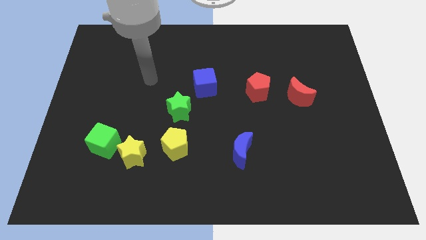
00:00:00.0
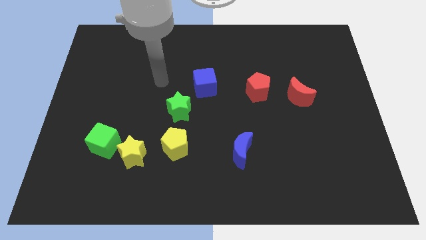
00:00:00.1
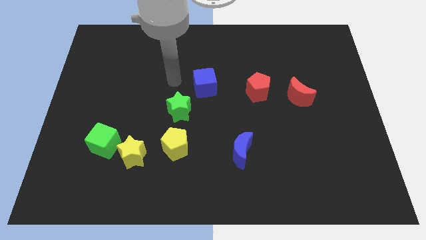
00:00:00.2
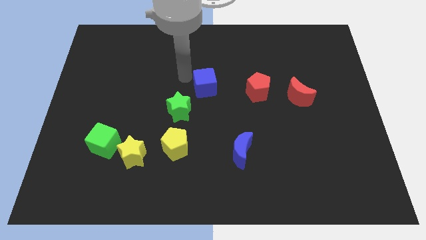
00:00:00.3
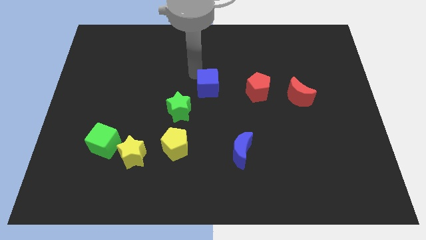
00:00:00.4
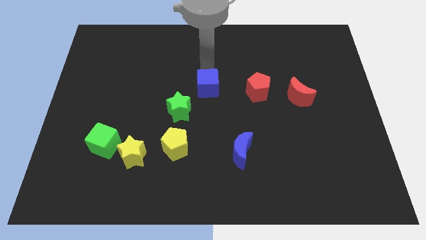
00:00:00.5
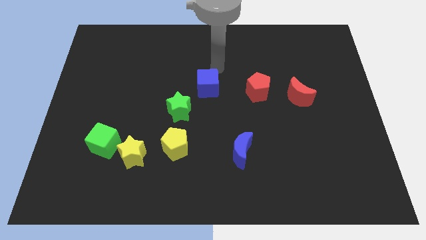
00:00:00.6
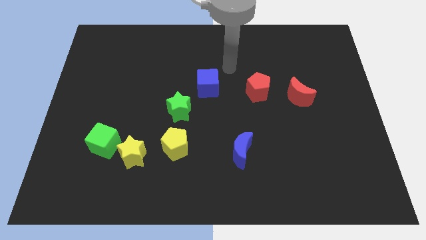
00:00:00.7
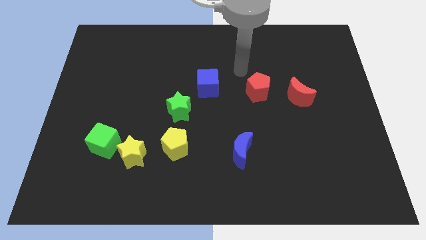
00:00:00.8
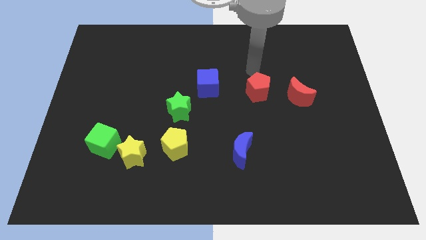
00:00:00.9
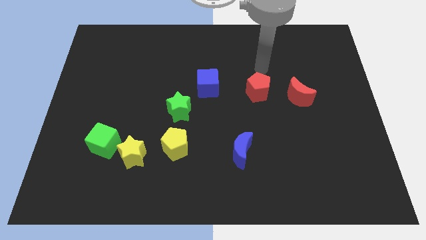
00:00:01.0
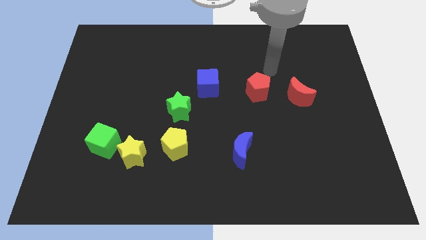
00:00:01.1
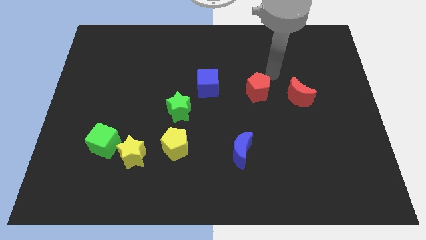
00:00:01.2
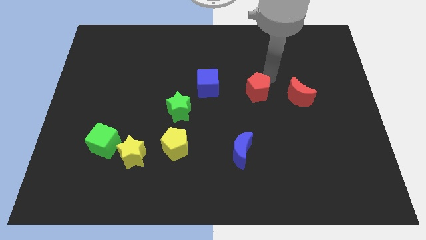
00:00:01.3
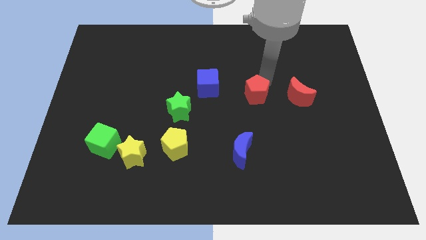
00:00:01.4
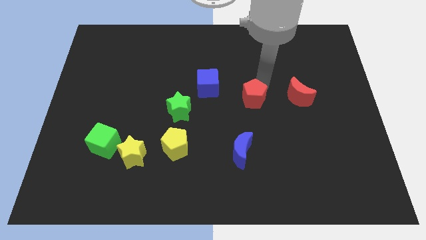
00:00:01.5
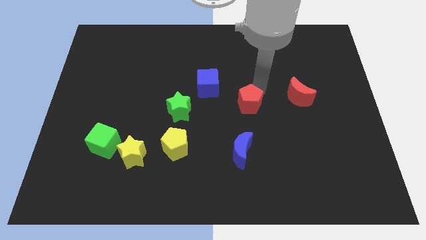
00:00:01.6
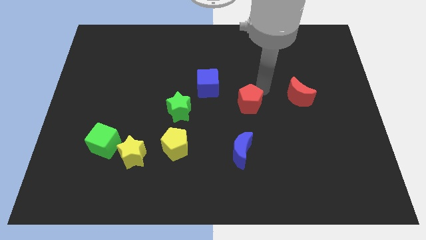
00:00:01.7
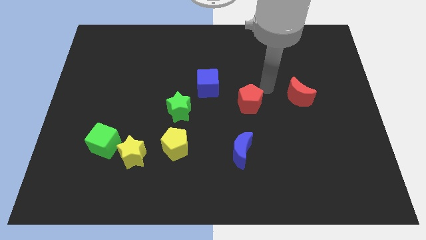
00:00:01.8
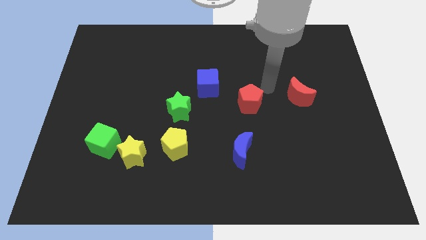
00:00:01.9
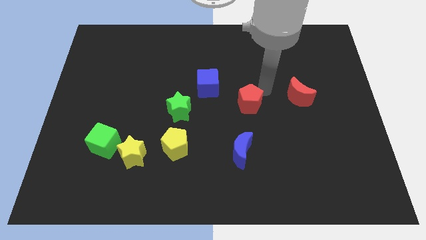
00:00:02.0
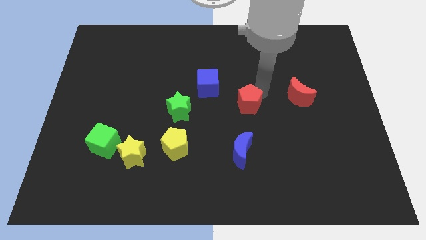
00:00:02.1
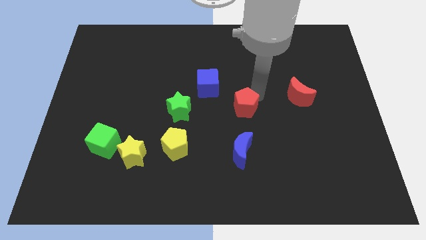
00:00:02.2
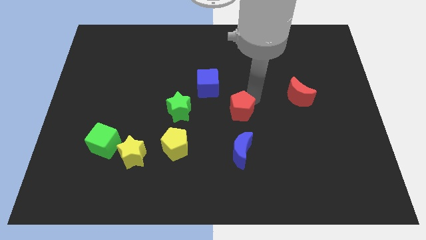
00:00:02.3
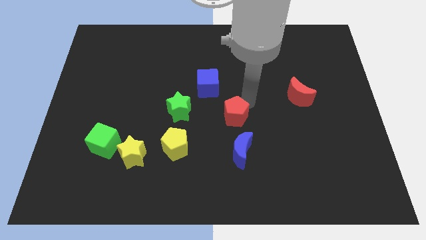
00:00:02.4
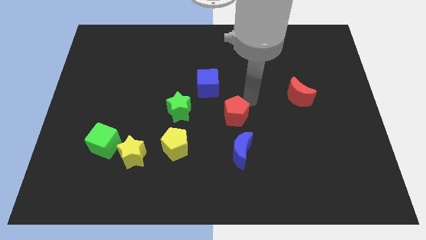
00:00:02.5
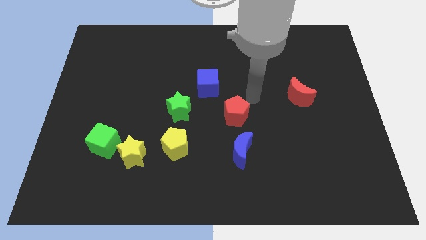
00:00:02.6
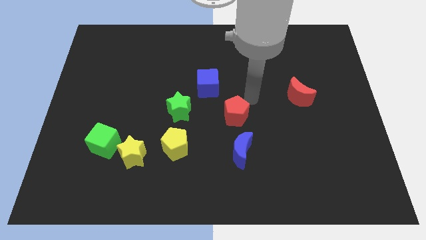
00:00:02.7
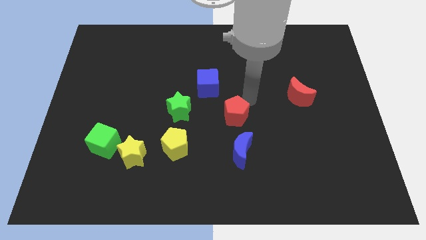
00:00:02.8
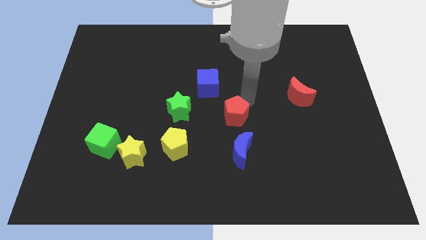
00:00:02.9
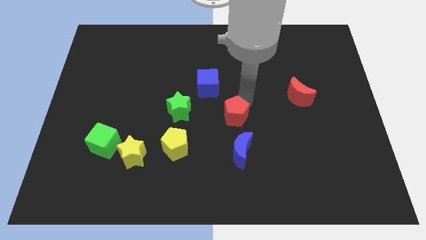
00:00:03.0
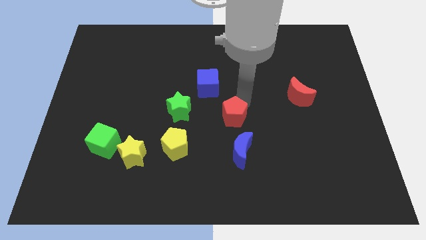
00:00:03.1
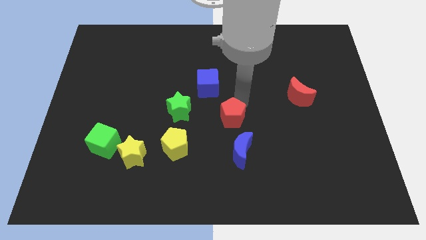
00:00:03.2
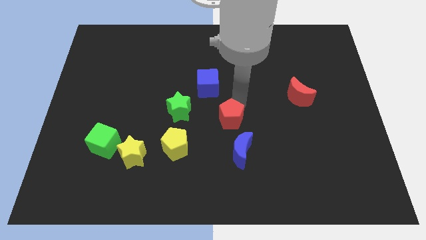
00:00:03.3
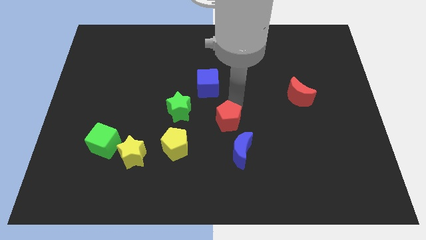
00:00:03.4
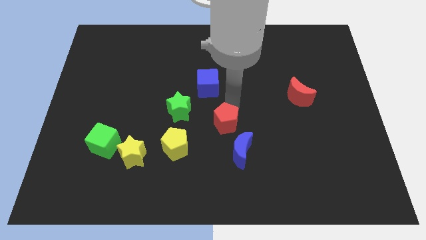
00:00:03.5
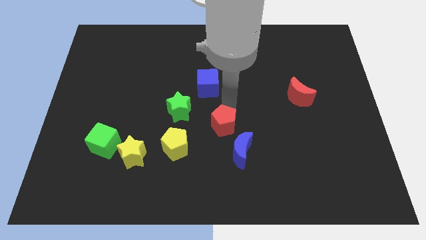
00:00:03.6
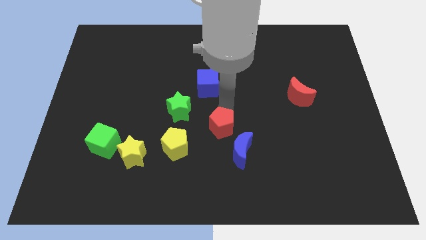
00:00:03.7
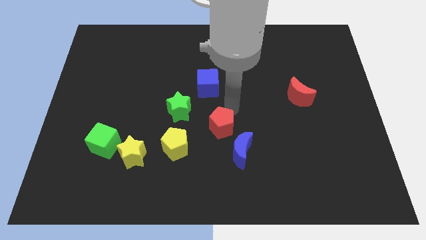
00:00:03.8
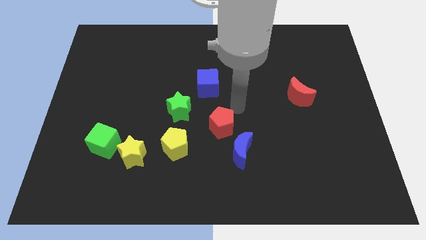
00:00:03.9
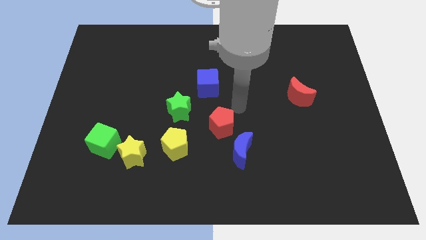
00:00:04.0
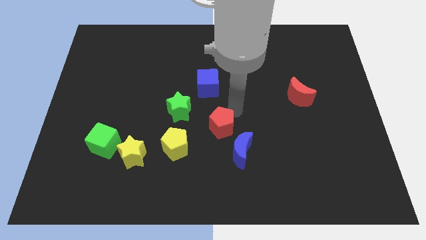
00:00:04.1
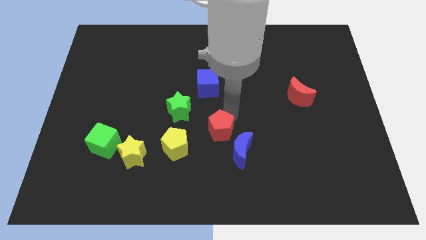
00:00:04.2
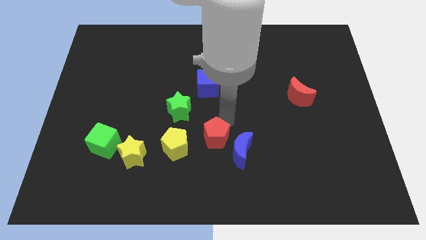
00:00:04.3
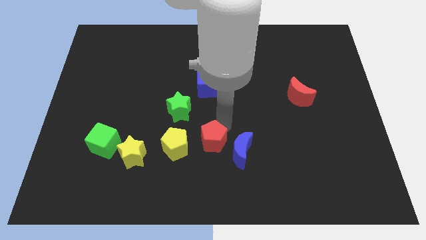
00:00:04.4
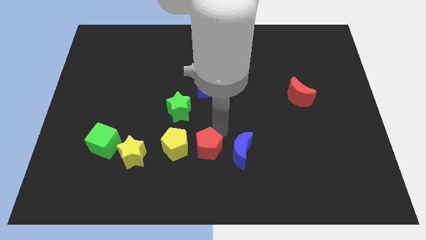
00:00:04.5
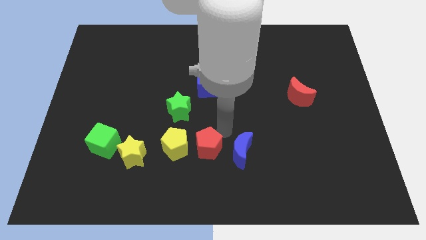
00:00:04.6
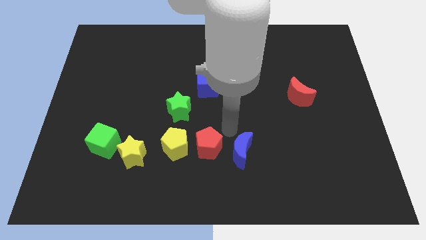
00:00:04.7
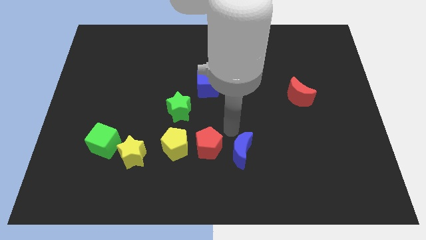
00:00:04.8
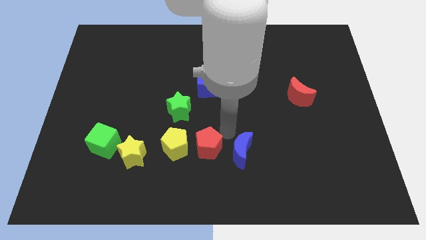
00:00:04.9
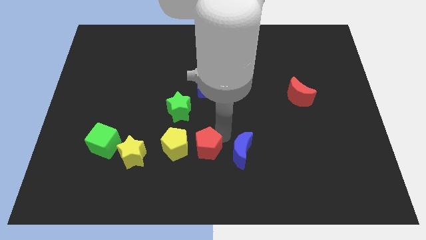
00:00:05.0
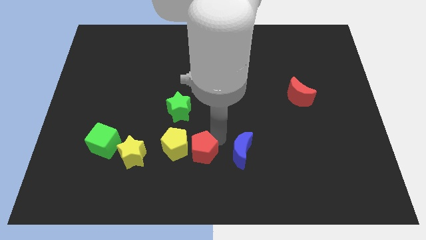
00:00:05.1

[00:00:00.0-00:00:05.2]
move the red pentagon downwards and to the left

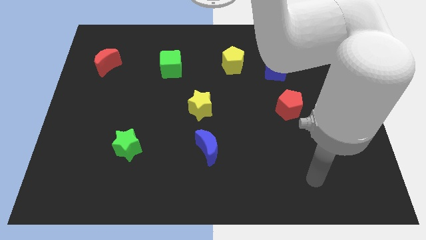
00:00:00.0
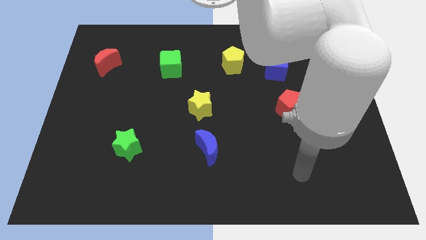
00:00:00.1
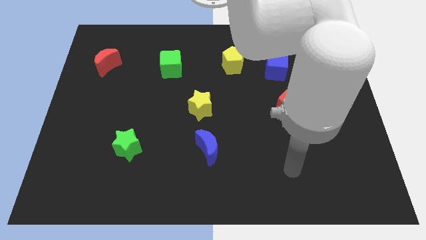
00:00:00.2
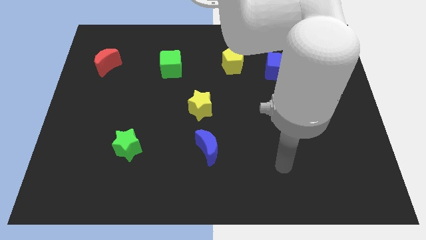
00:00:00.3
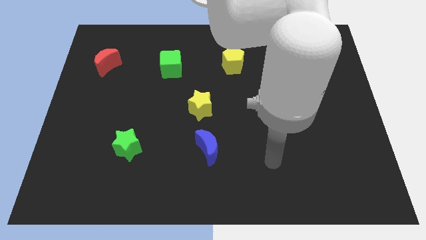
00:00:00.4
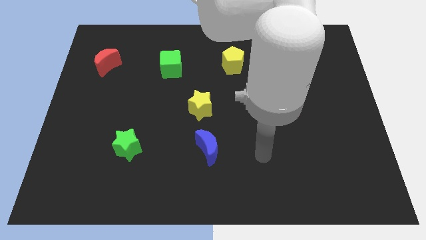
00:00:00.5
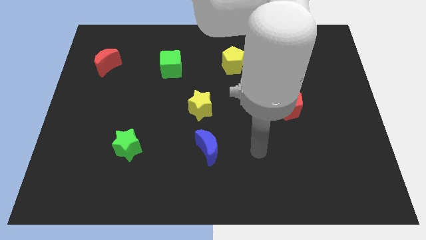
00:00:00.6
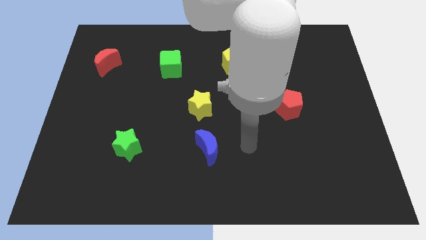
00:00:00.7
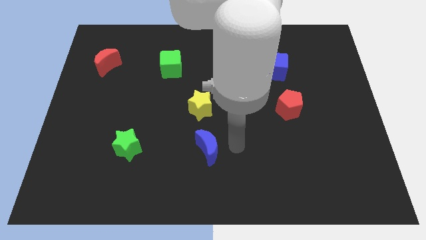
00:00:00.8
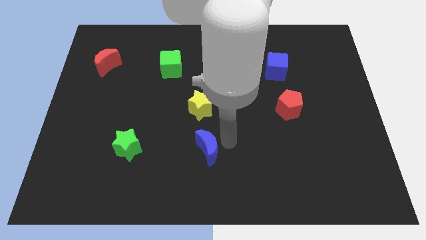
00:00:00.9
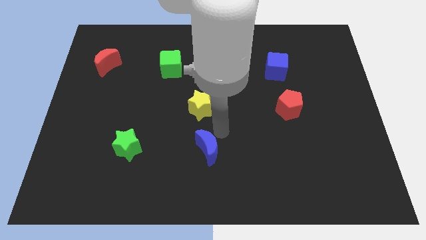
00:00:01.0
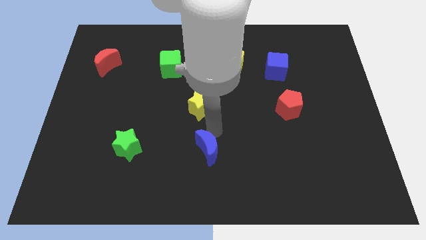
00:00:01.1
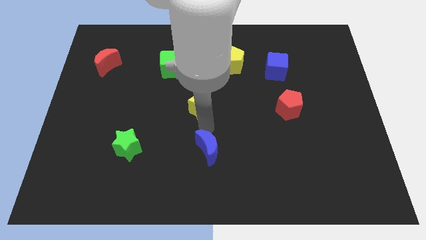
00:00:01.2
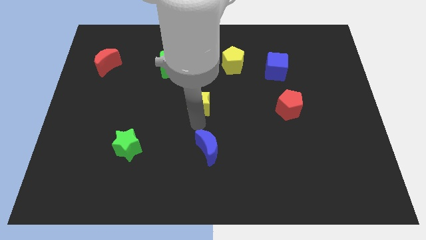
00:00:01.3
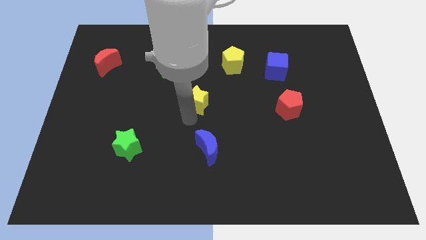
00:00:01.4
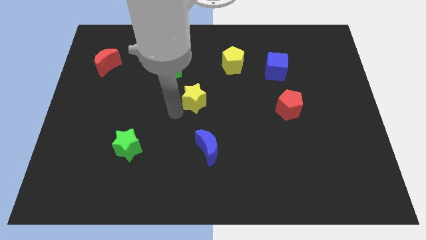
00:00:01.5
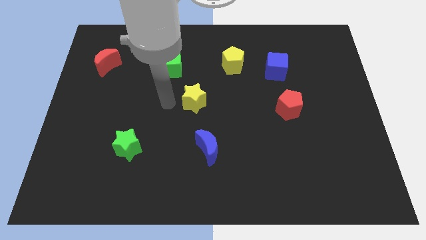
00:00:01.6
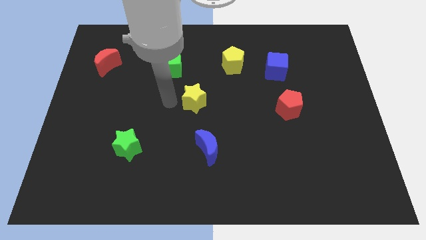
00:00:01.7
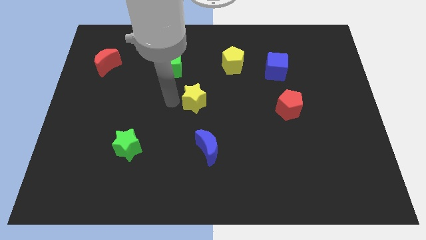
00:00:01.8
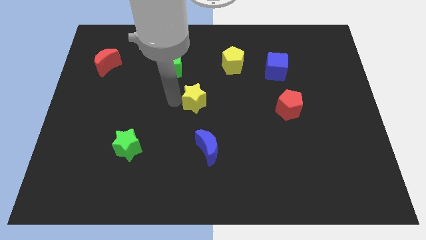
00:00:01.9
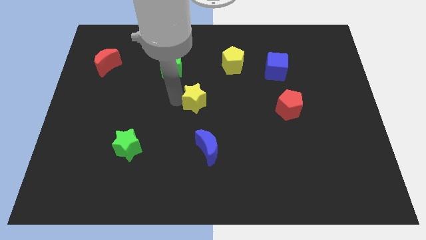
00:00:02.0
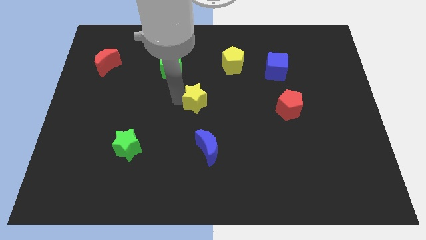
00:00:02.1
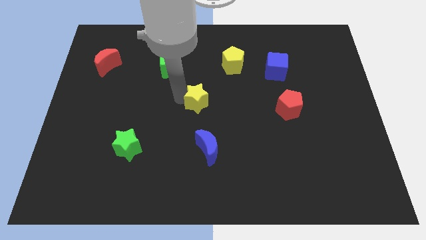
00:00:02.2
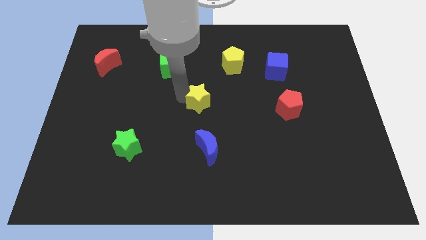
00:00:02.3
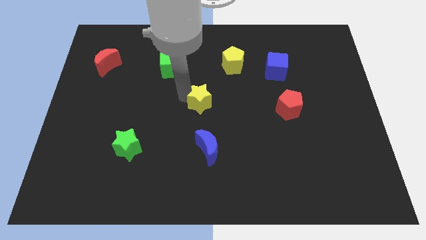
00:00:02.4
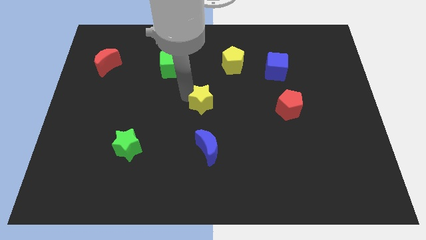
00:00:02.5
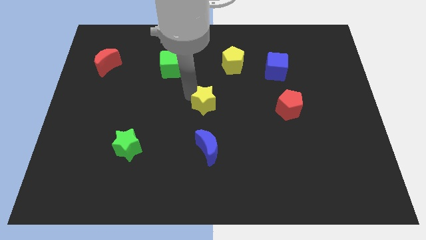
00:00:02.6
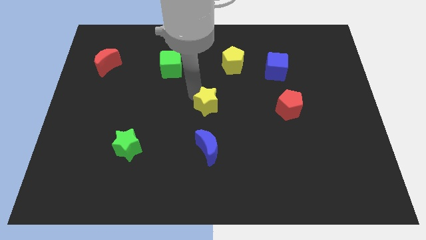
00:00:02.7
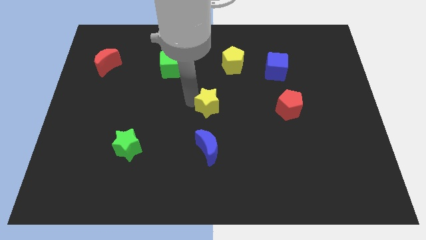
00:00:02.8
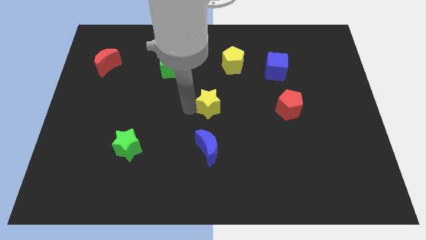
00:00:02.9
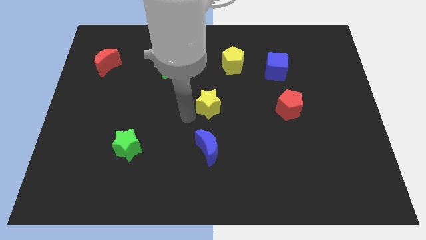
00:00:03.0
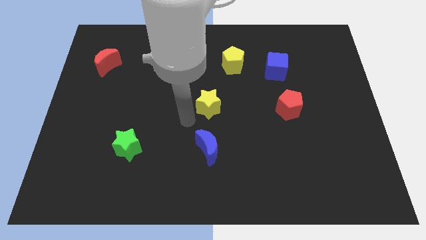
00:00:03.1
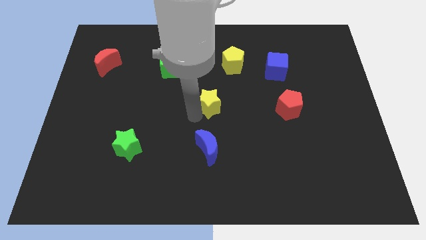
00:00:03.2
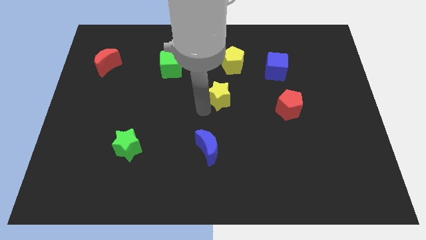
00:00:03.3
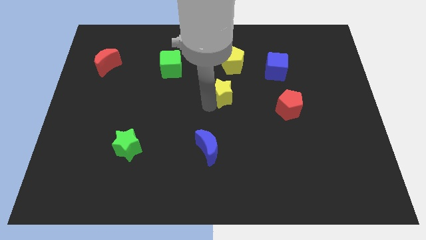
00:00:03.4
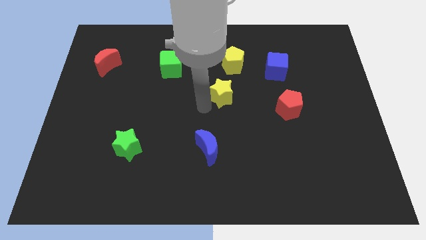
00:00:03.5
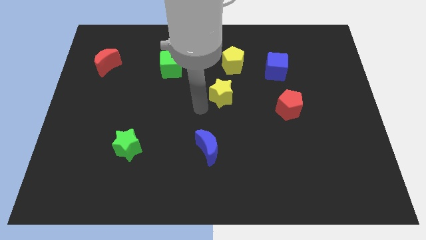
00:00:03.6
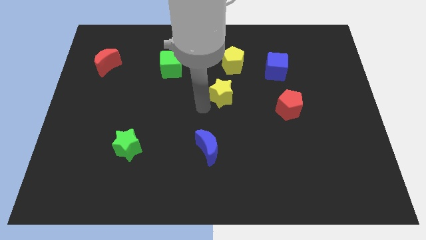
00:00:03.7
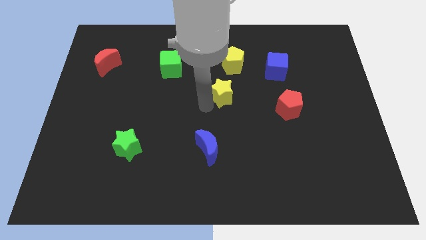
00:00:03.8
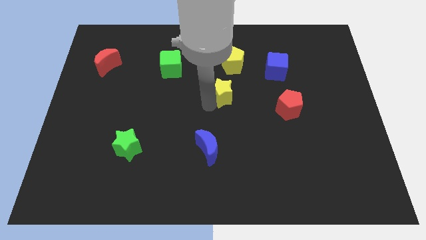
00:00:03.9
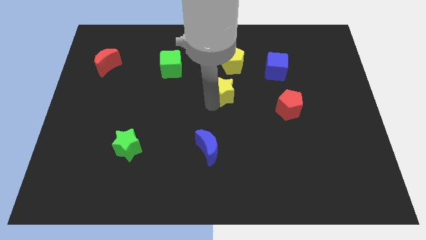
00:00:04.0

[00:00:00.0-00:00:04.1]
push the yellow star up and to the right diagonally slightly
